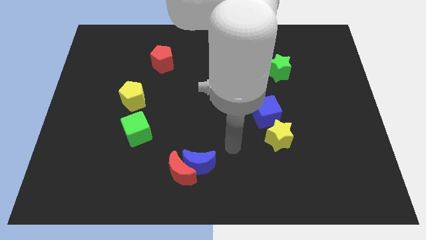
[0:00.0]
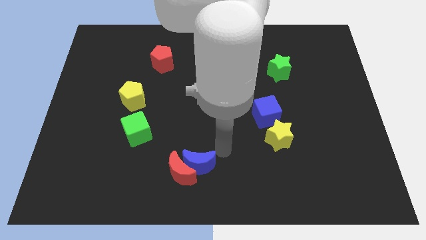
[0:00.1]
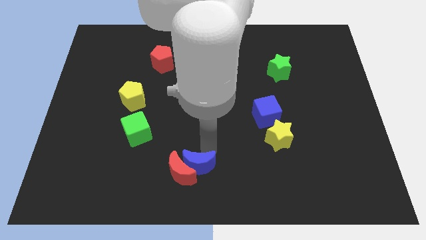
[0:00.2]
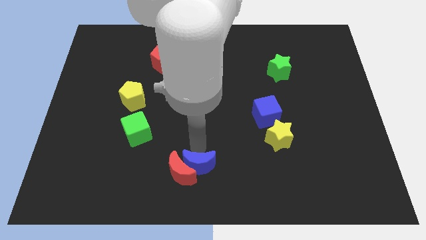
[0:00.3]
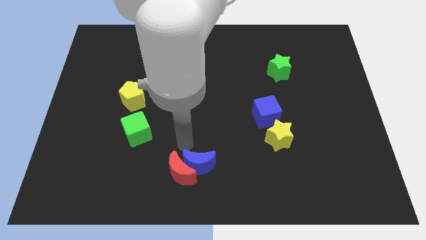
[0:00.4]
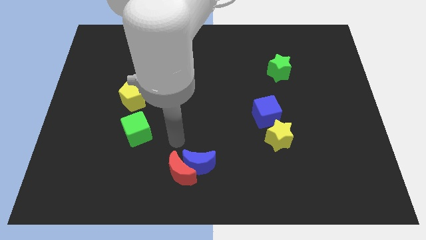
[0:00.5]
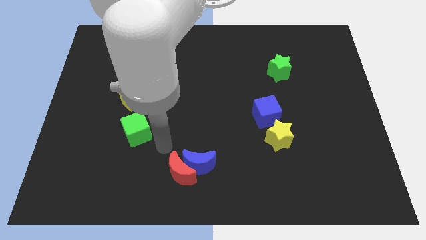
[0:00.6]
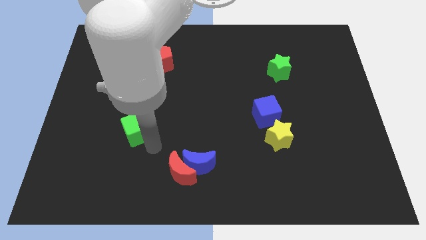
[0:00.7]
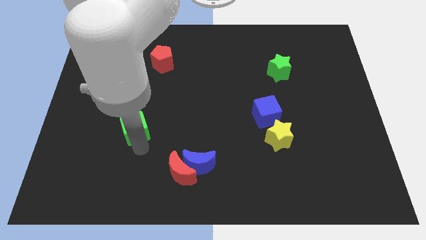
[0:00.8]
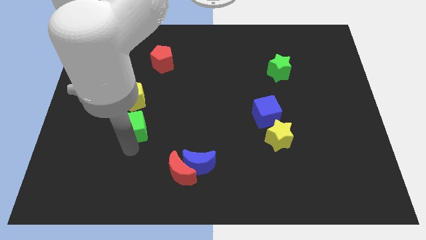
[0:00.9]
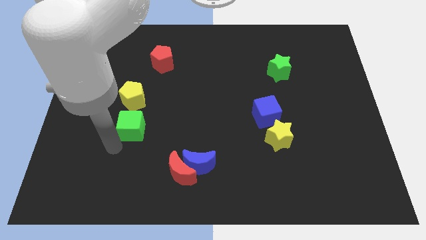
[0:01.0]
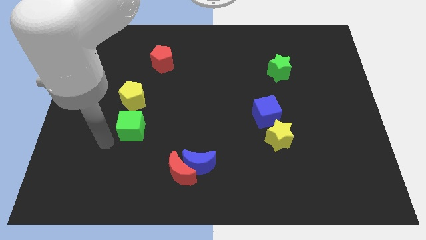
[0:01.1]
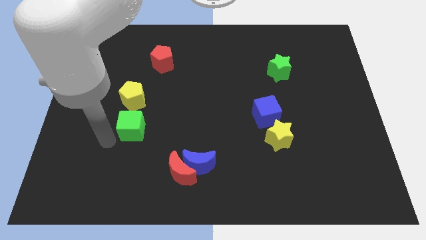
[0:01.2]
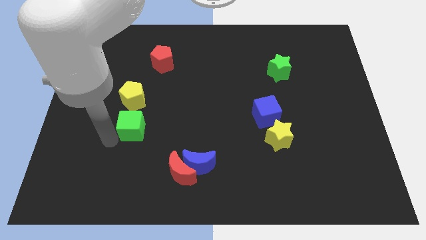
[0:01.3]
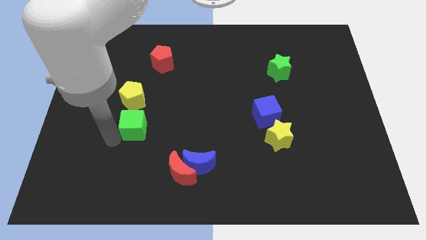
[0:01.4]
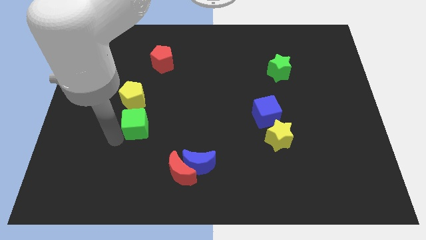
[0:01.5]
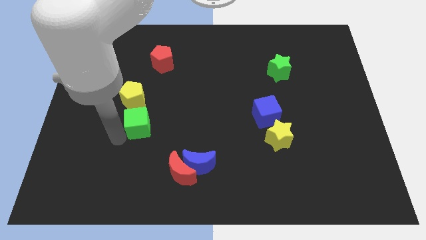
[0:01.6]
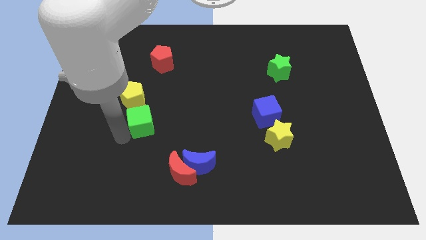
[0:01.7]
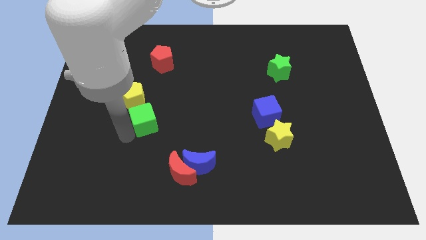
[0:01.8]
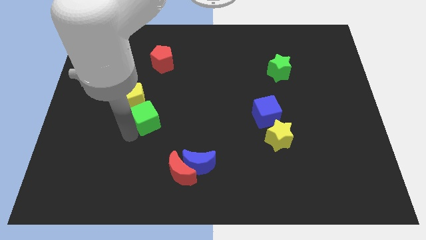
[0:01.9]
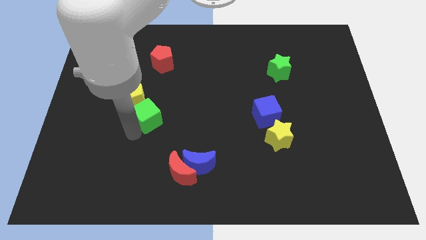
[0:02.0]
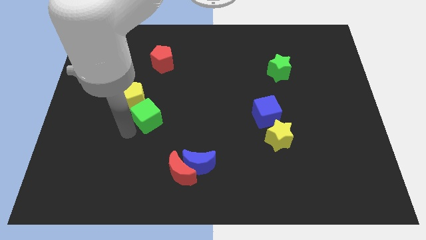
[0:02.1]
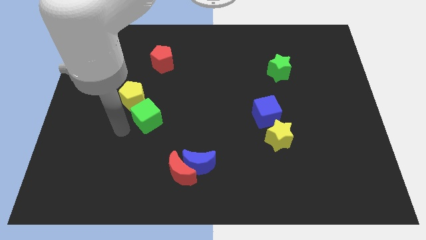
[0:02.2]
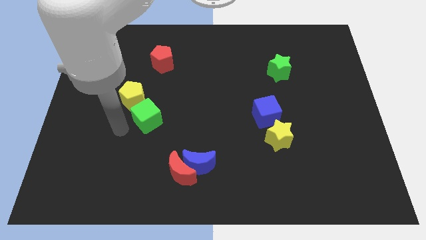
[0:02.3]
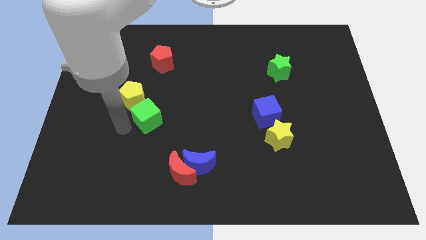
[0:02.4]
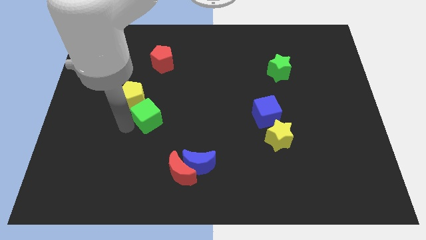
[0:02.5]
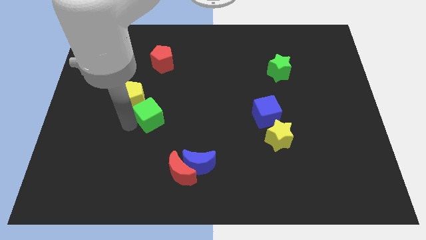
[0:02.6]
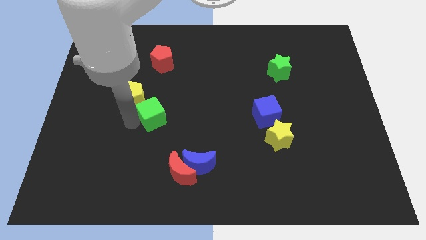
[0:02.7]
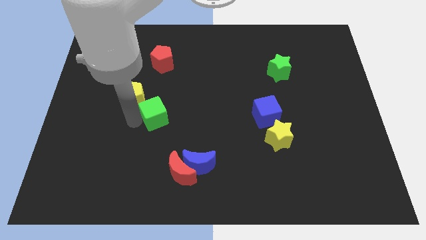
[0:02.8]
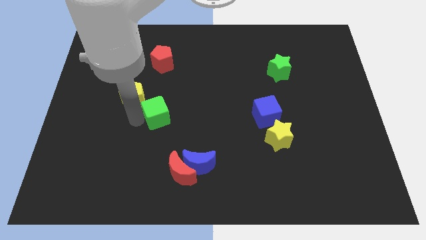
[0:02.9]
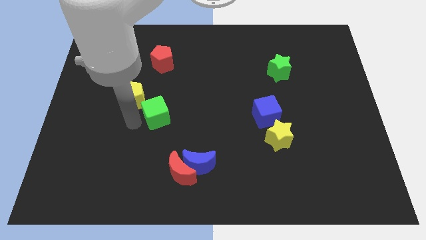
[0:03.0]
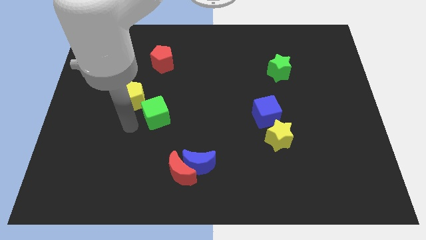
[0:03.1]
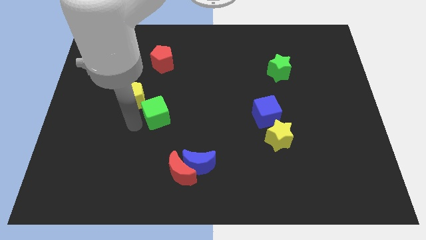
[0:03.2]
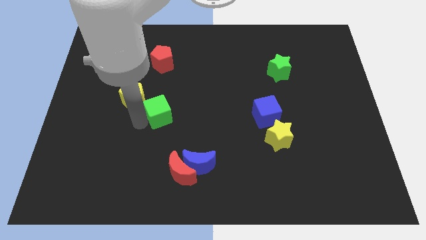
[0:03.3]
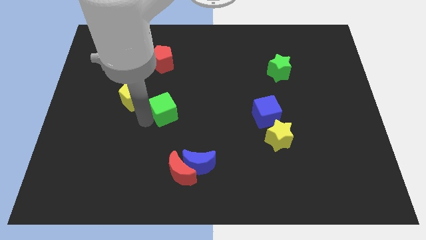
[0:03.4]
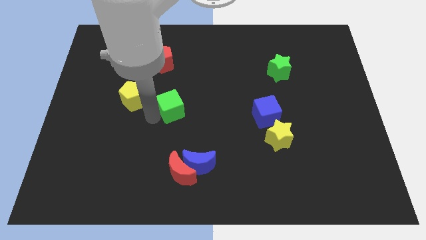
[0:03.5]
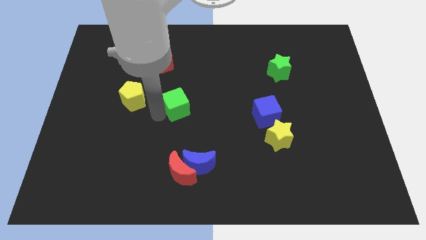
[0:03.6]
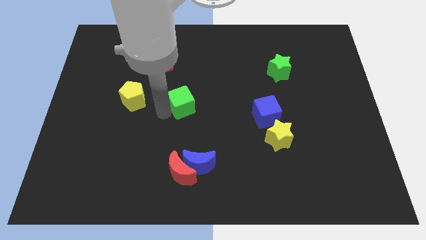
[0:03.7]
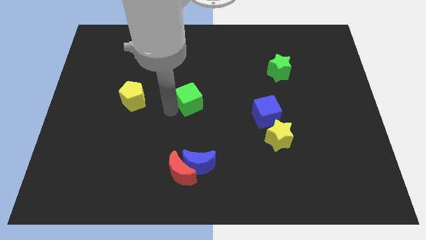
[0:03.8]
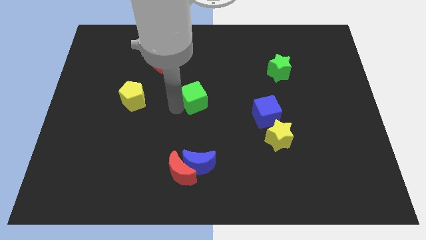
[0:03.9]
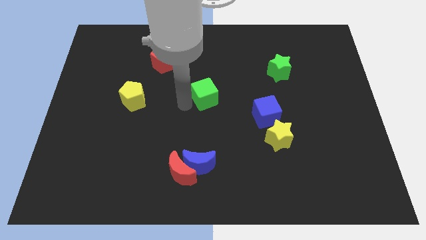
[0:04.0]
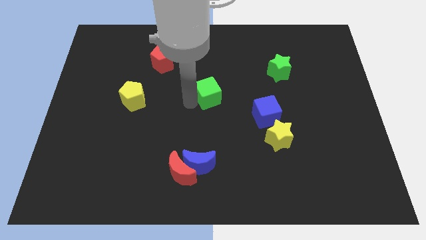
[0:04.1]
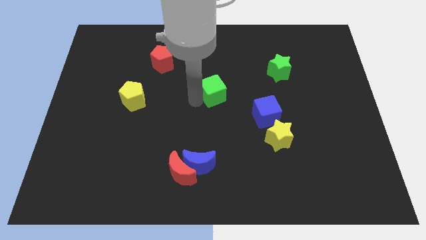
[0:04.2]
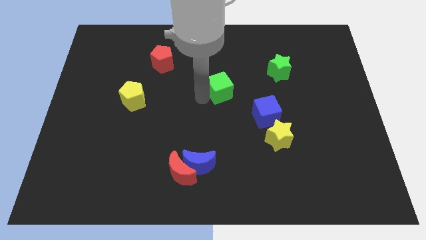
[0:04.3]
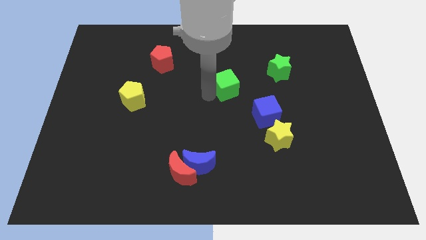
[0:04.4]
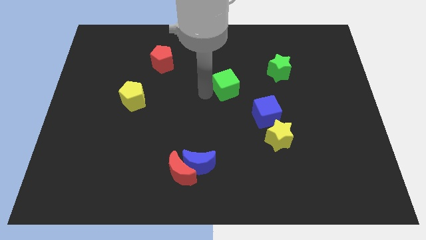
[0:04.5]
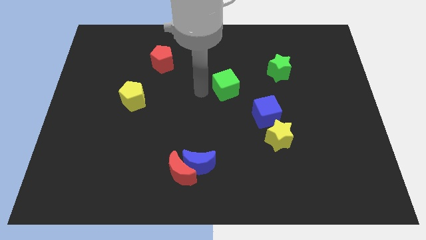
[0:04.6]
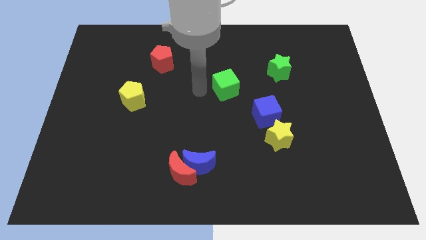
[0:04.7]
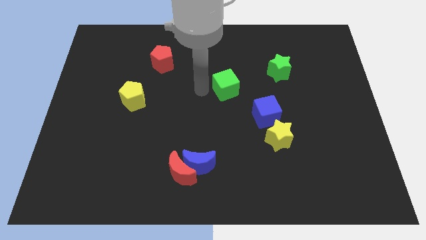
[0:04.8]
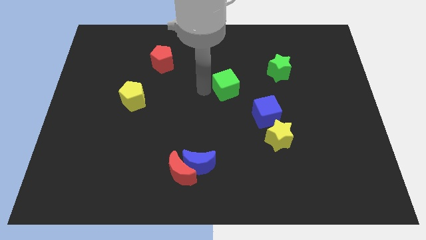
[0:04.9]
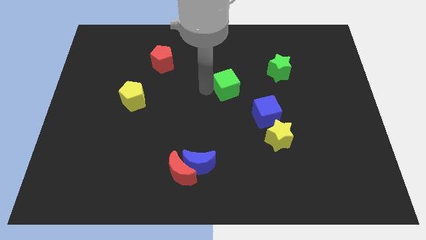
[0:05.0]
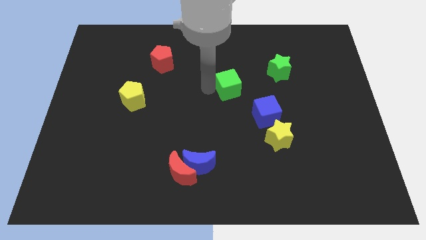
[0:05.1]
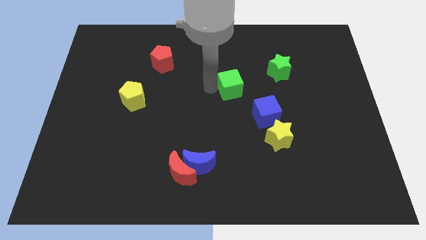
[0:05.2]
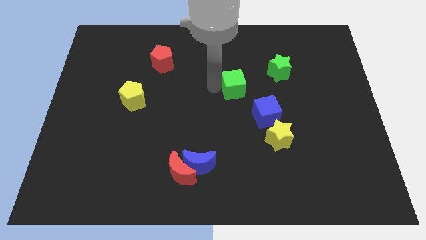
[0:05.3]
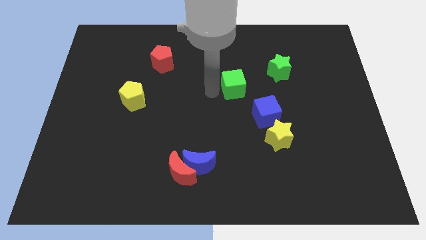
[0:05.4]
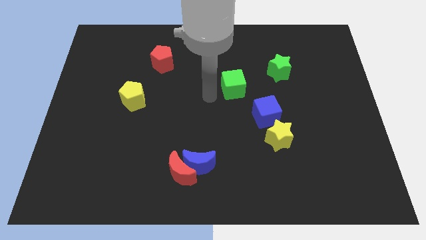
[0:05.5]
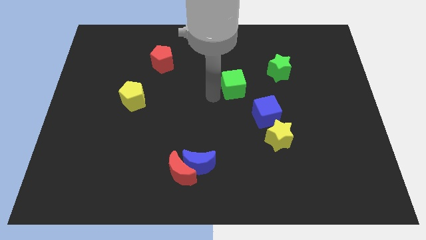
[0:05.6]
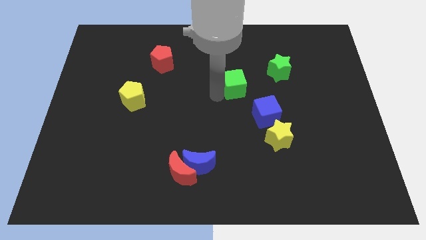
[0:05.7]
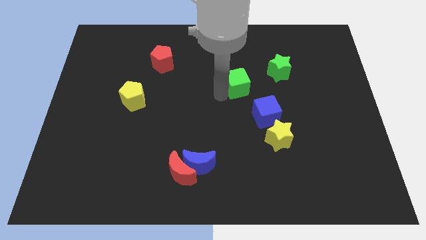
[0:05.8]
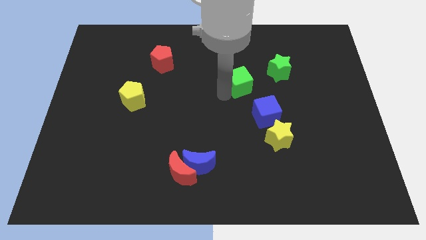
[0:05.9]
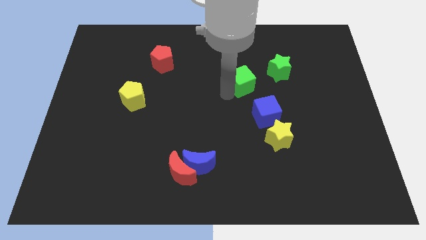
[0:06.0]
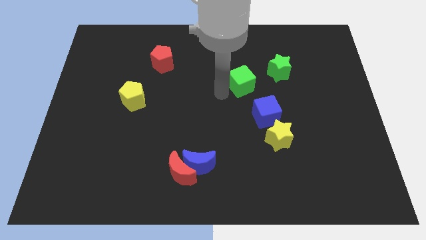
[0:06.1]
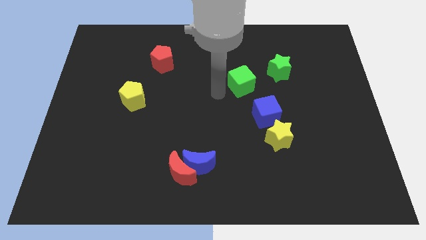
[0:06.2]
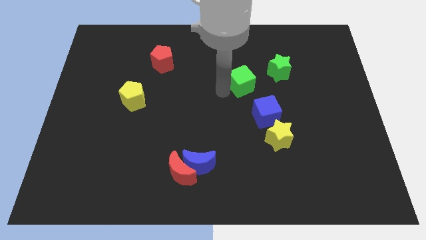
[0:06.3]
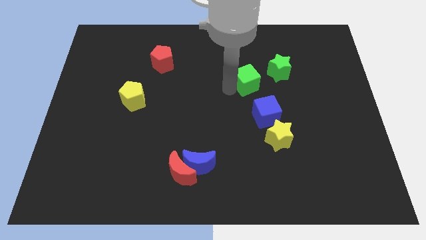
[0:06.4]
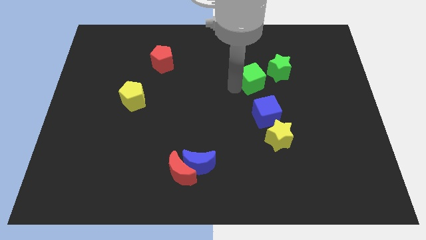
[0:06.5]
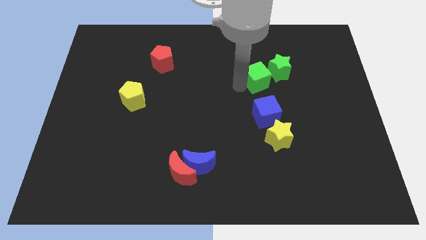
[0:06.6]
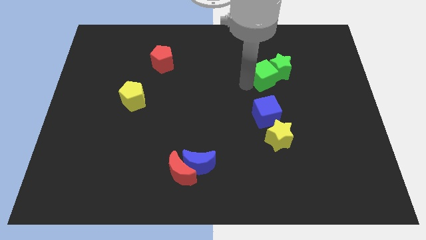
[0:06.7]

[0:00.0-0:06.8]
move the green cube to the green star

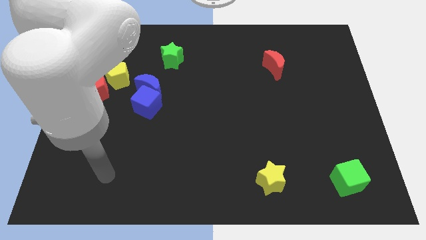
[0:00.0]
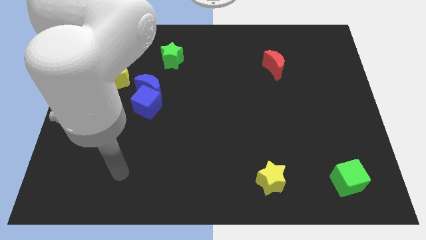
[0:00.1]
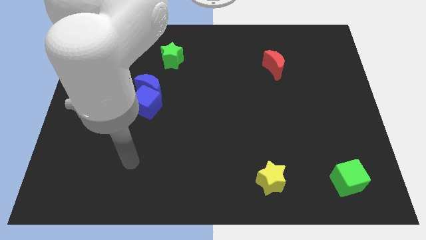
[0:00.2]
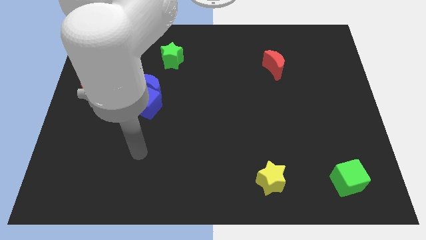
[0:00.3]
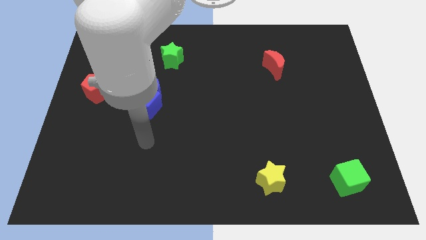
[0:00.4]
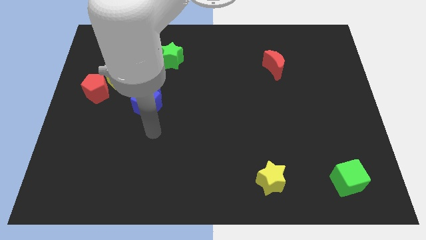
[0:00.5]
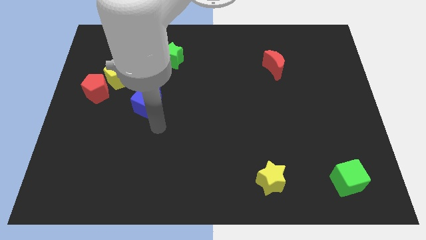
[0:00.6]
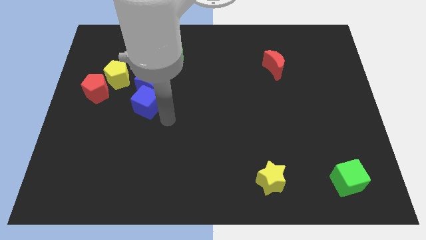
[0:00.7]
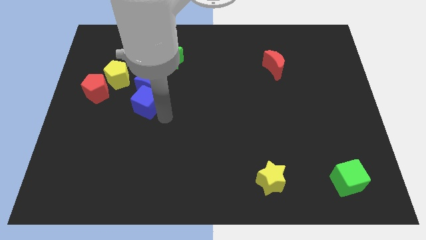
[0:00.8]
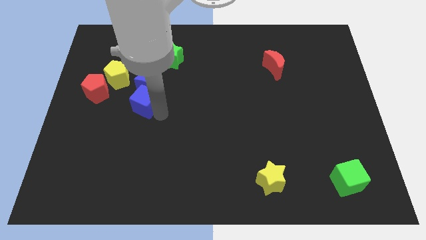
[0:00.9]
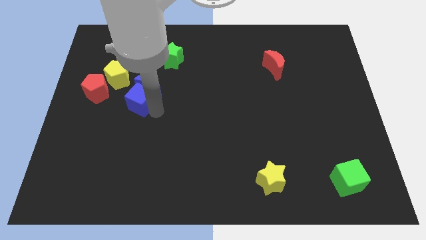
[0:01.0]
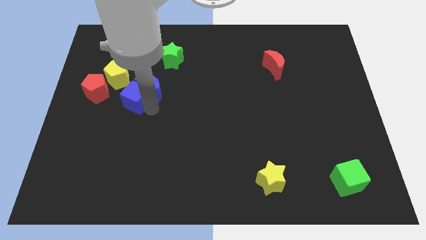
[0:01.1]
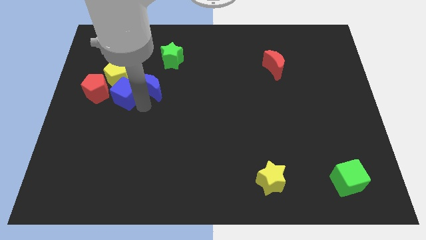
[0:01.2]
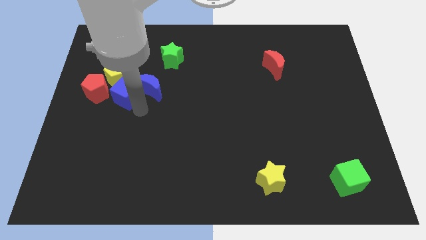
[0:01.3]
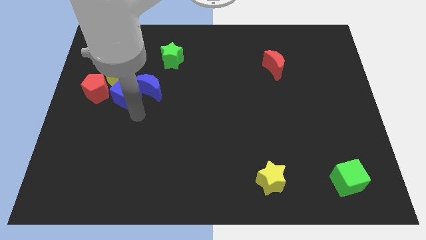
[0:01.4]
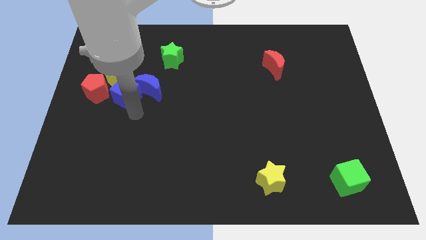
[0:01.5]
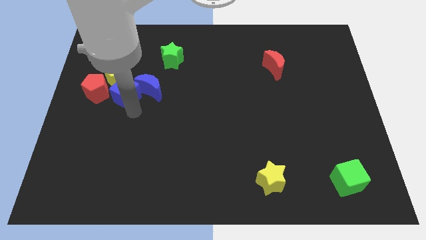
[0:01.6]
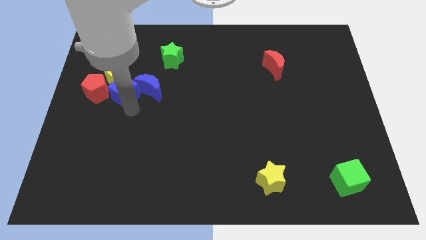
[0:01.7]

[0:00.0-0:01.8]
move the blue cube towards the yellow pentagon
